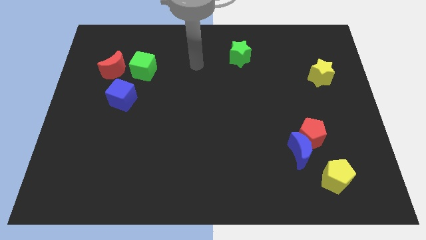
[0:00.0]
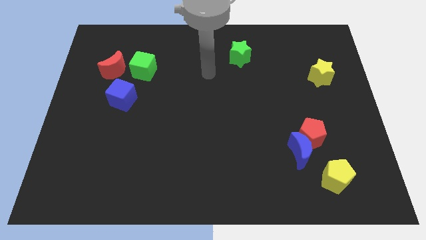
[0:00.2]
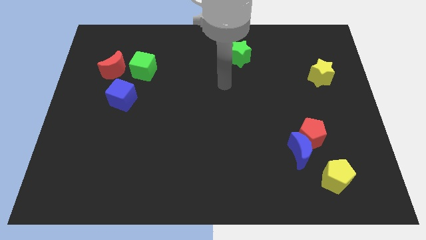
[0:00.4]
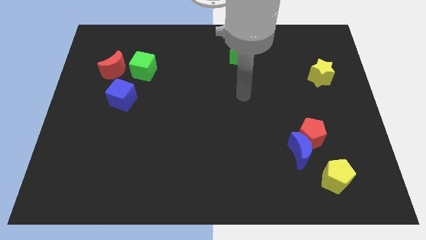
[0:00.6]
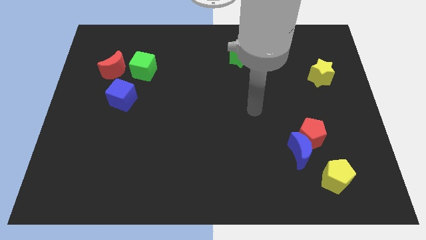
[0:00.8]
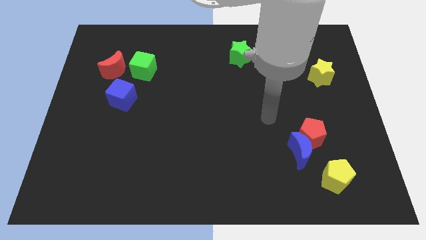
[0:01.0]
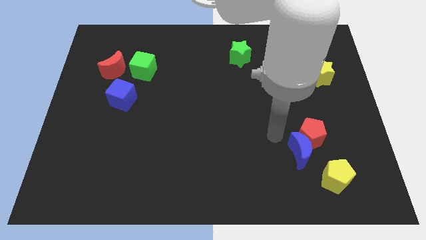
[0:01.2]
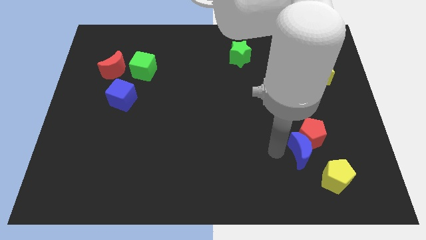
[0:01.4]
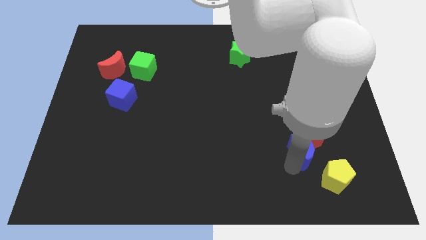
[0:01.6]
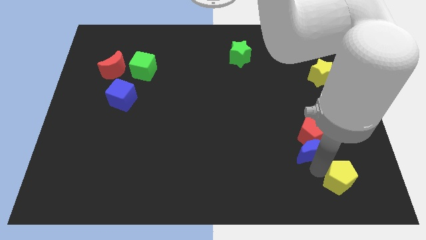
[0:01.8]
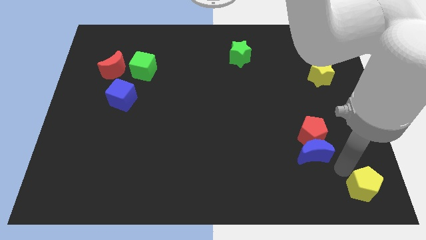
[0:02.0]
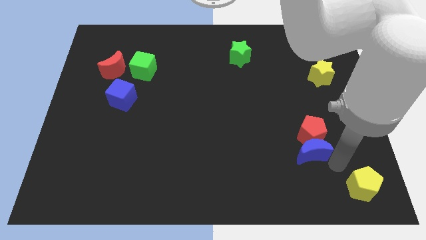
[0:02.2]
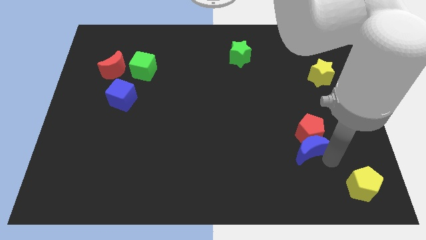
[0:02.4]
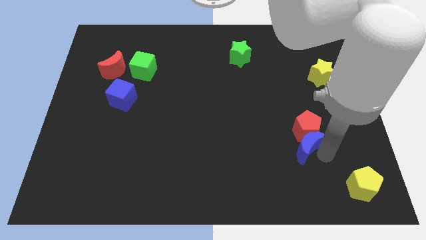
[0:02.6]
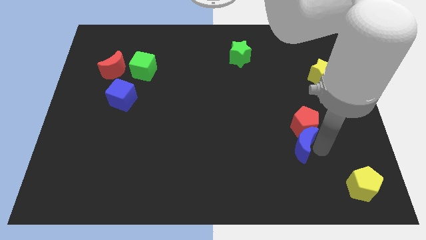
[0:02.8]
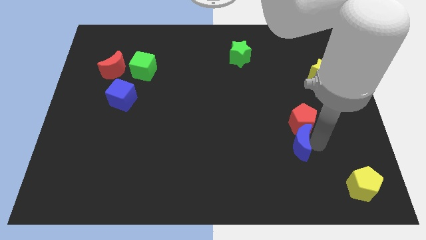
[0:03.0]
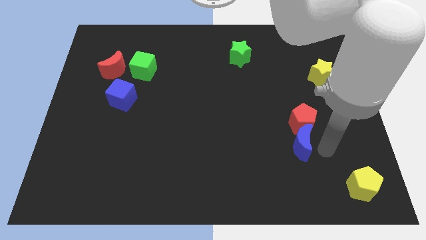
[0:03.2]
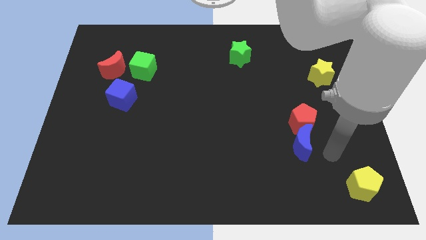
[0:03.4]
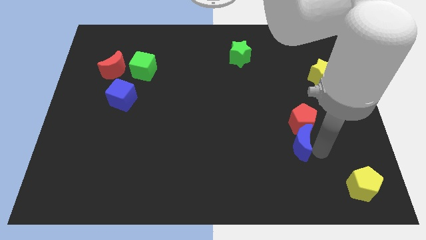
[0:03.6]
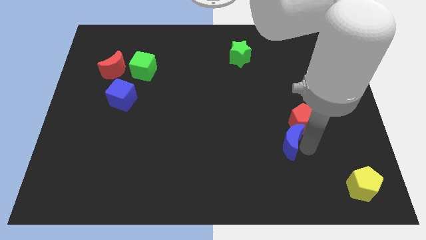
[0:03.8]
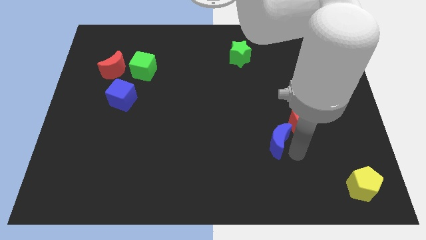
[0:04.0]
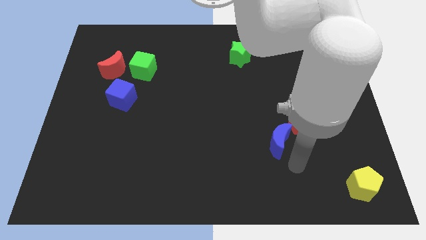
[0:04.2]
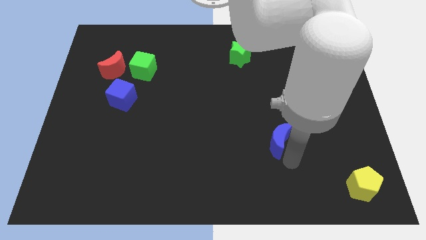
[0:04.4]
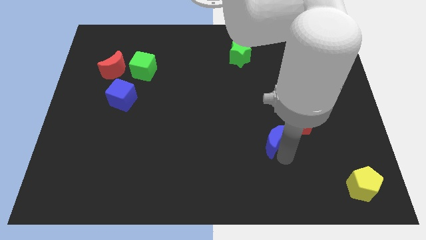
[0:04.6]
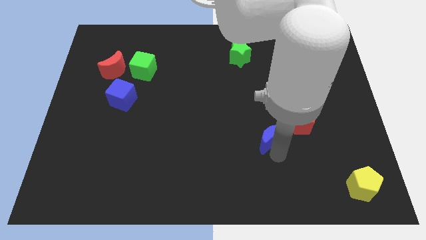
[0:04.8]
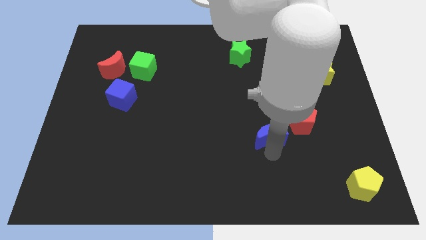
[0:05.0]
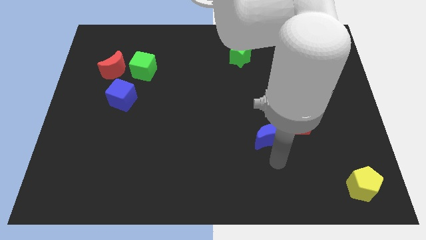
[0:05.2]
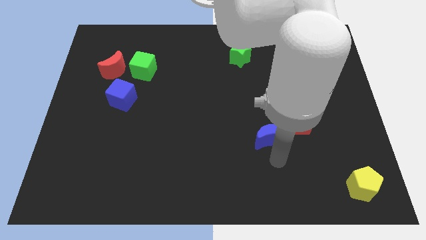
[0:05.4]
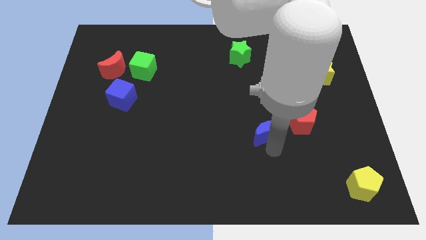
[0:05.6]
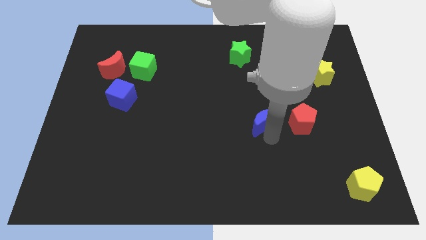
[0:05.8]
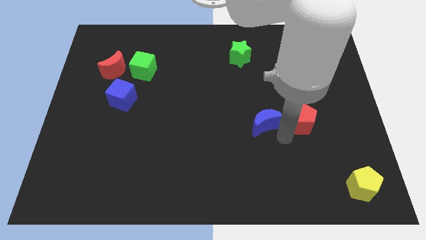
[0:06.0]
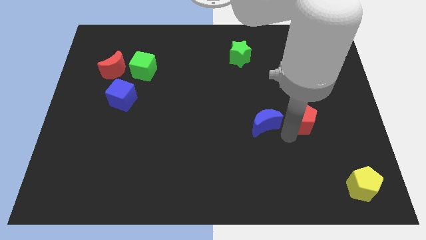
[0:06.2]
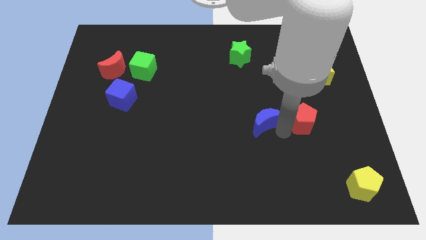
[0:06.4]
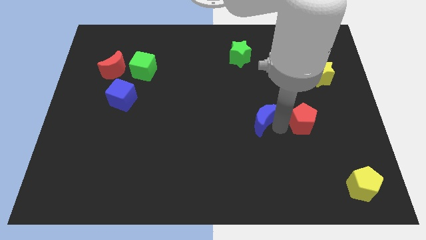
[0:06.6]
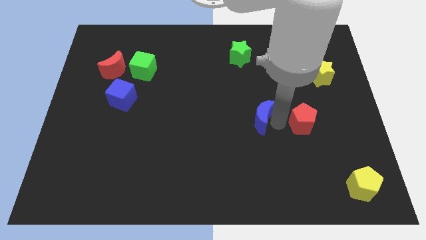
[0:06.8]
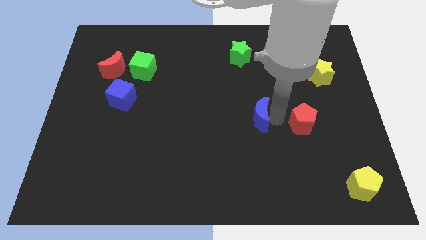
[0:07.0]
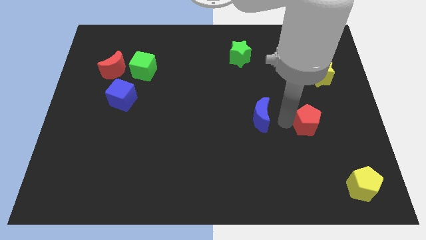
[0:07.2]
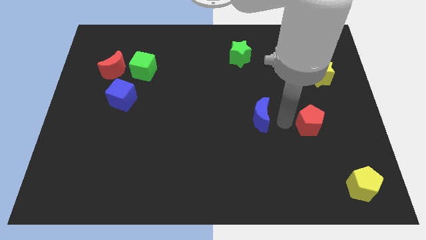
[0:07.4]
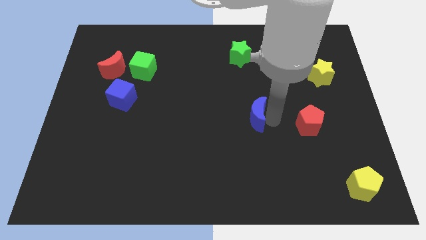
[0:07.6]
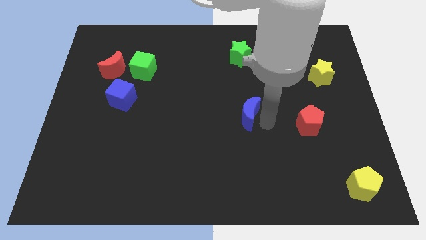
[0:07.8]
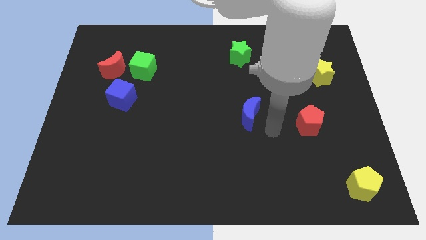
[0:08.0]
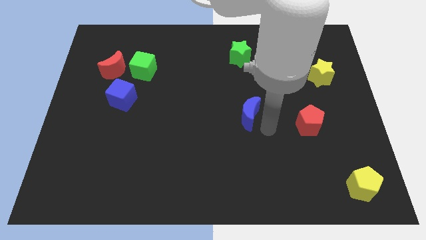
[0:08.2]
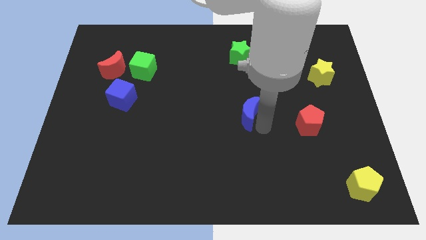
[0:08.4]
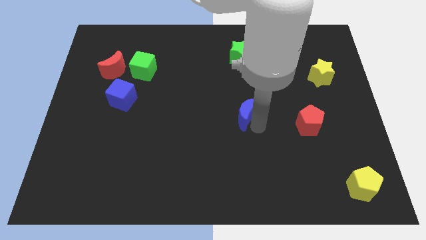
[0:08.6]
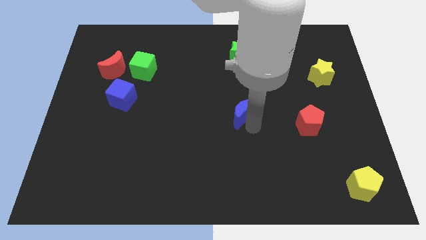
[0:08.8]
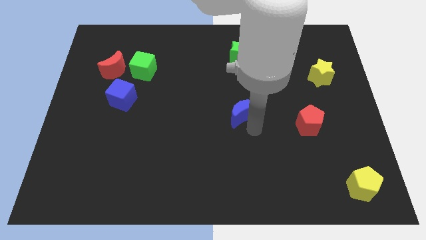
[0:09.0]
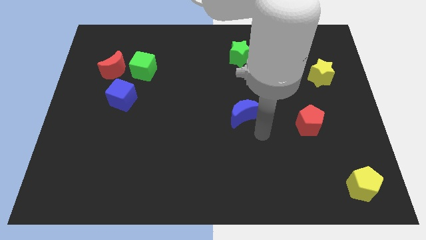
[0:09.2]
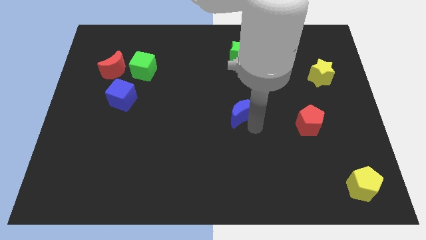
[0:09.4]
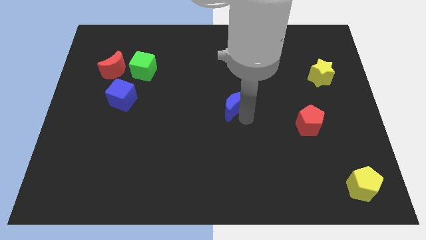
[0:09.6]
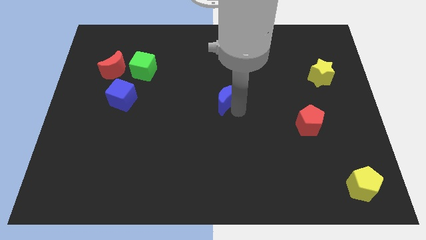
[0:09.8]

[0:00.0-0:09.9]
slide the blue moon up and then left

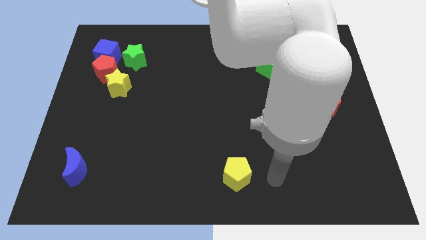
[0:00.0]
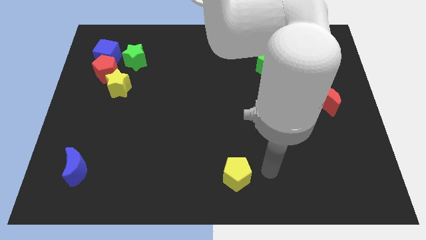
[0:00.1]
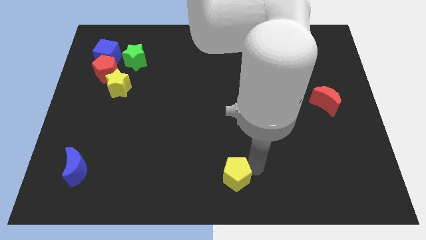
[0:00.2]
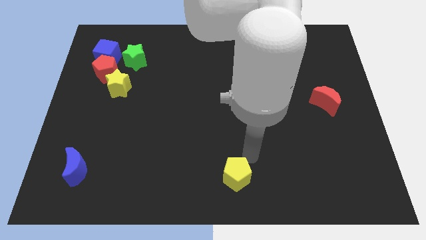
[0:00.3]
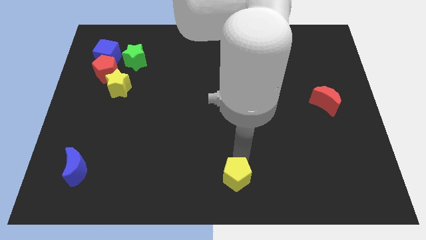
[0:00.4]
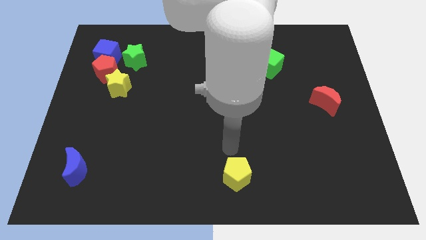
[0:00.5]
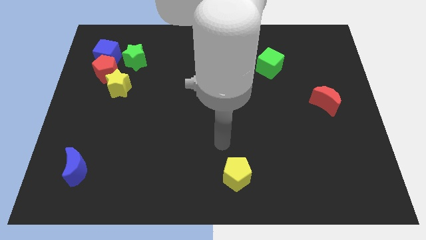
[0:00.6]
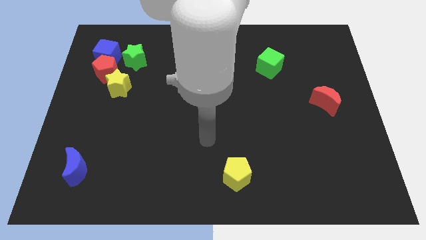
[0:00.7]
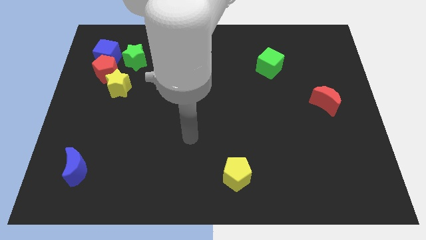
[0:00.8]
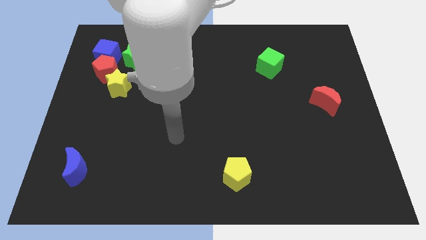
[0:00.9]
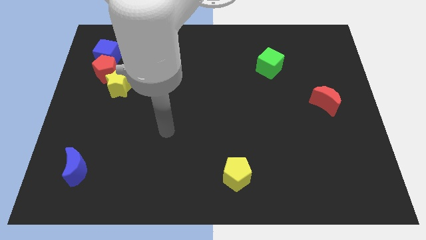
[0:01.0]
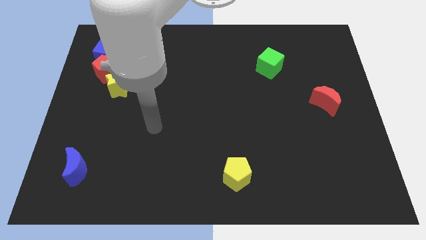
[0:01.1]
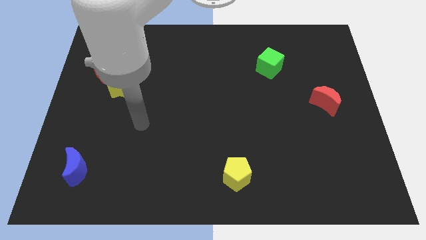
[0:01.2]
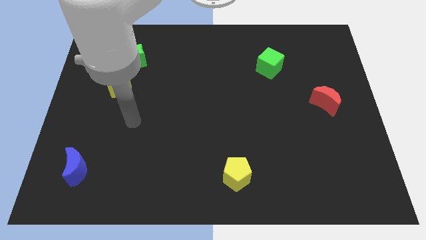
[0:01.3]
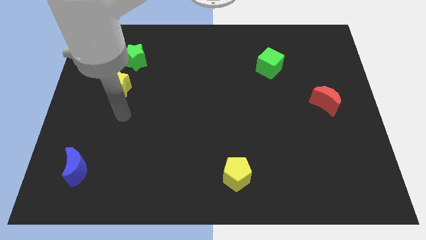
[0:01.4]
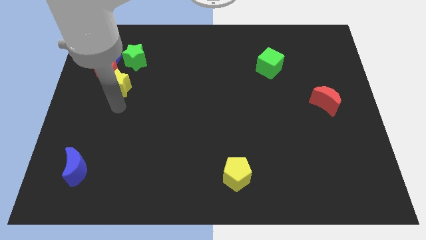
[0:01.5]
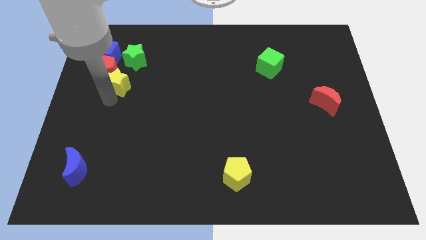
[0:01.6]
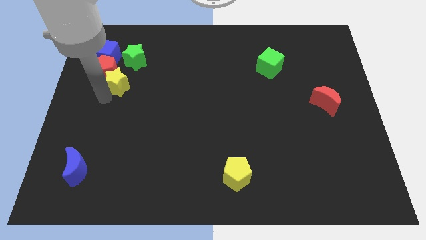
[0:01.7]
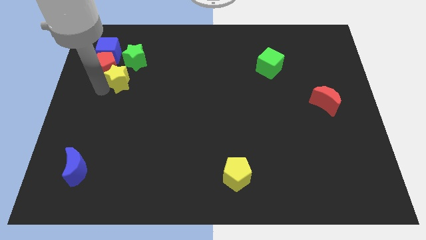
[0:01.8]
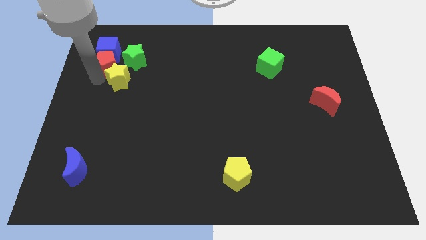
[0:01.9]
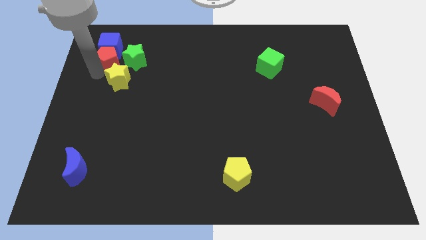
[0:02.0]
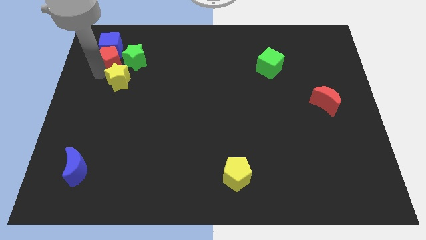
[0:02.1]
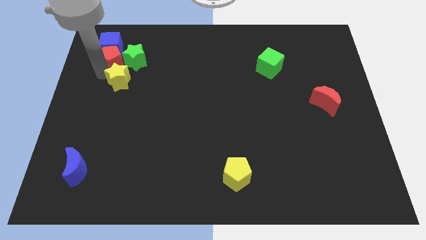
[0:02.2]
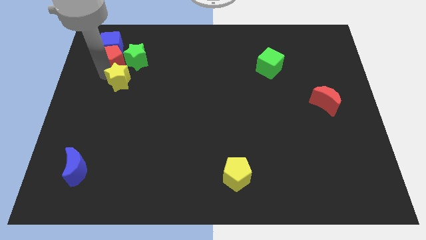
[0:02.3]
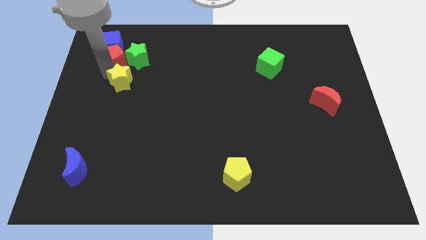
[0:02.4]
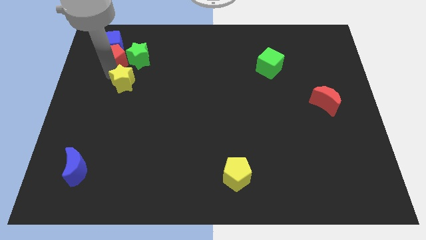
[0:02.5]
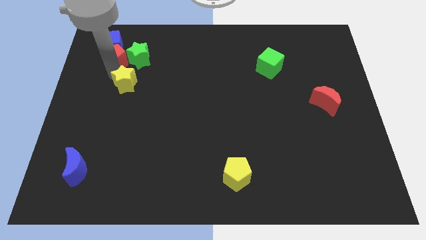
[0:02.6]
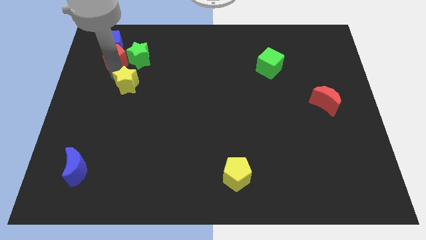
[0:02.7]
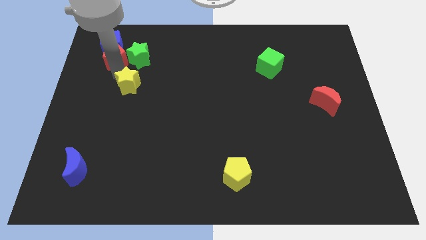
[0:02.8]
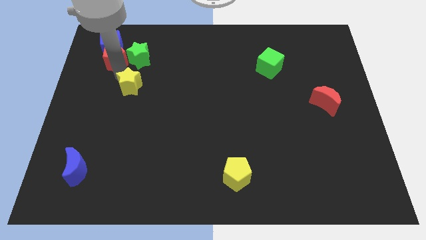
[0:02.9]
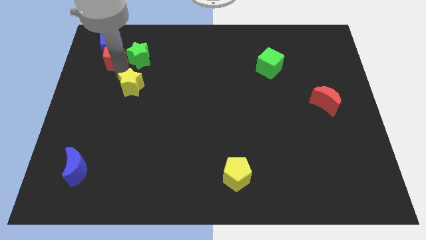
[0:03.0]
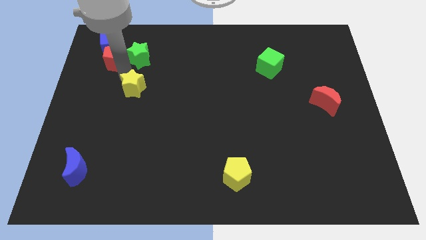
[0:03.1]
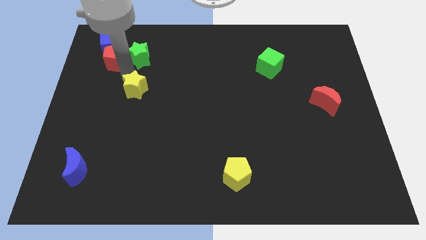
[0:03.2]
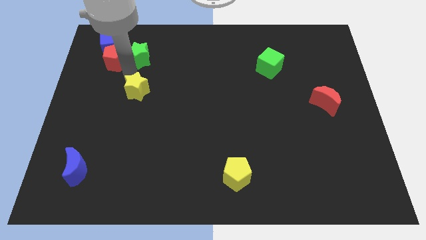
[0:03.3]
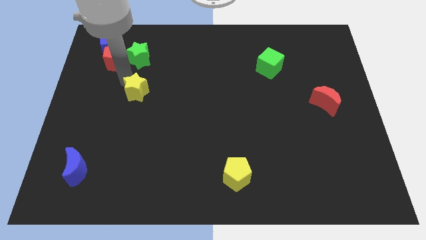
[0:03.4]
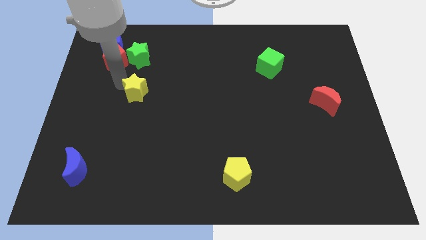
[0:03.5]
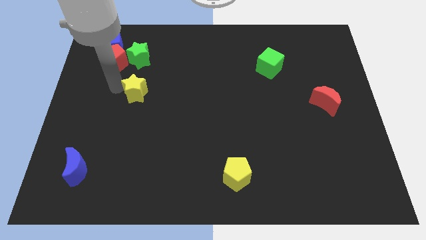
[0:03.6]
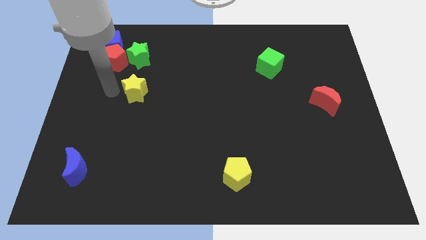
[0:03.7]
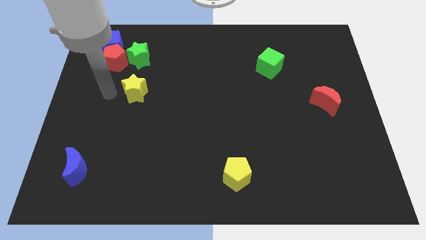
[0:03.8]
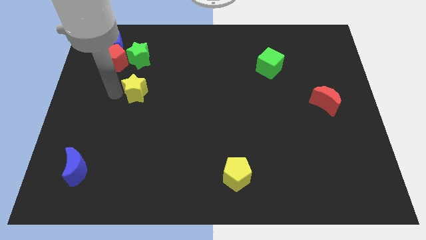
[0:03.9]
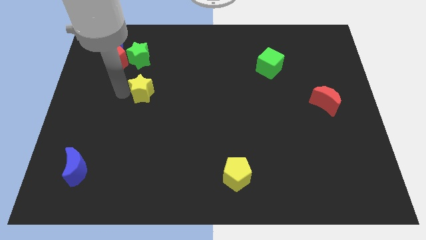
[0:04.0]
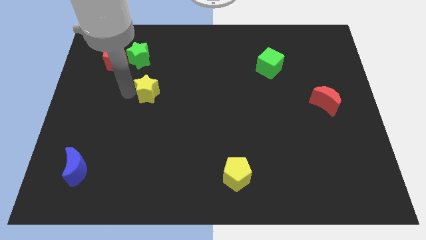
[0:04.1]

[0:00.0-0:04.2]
slightly push the yellow star right
